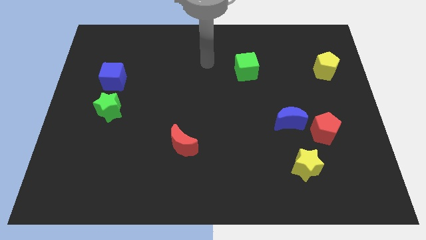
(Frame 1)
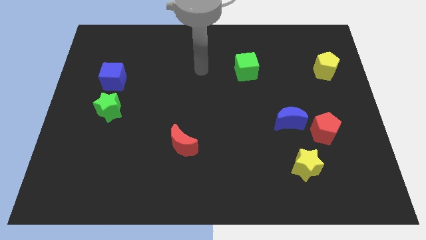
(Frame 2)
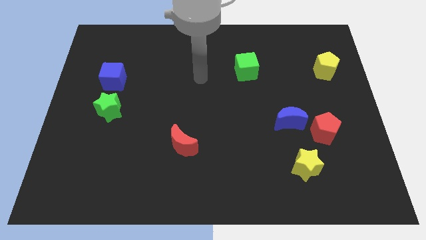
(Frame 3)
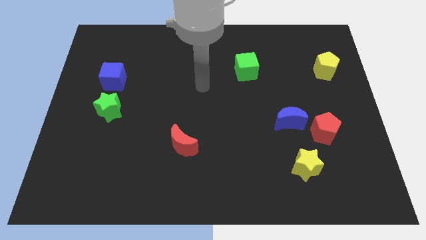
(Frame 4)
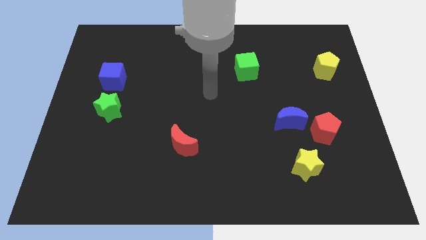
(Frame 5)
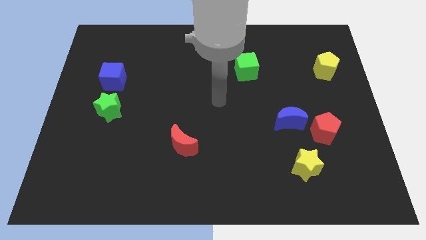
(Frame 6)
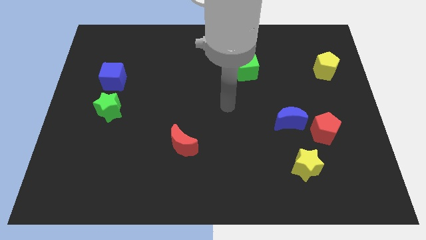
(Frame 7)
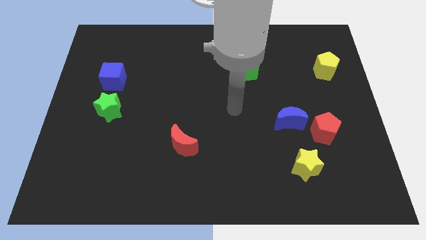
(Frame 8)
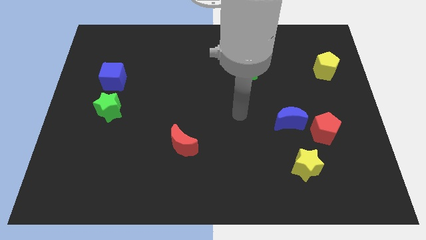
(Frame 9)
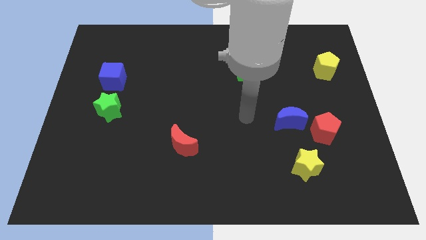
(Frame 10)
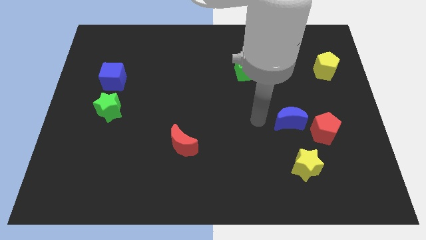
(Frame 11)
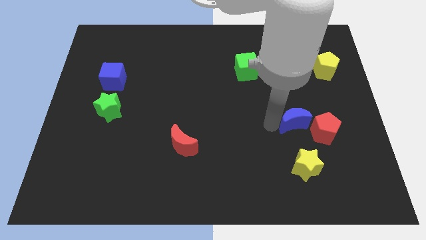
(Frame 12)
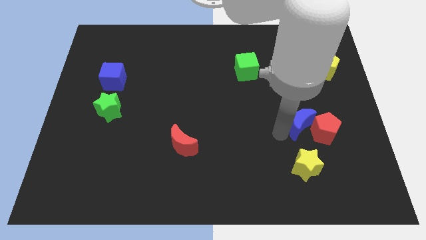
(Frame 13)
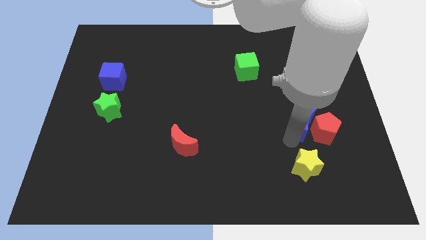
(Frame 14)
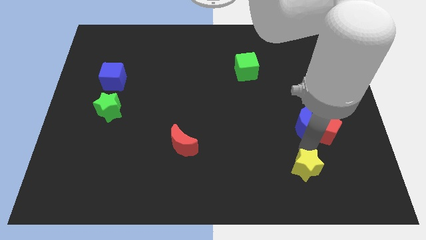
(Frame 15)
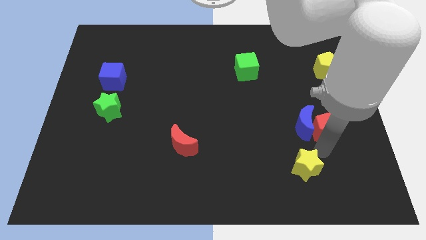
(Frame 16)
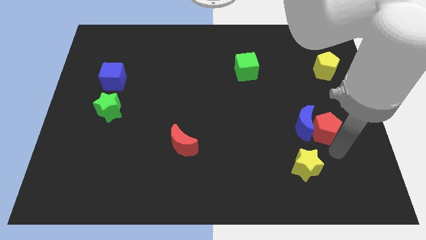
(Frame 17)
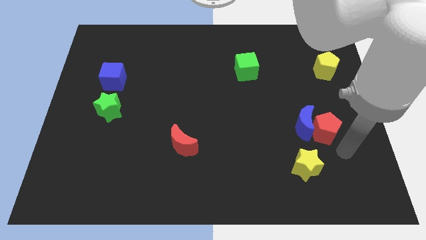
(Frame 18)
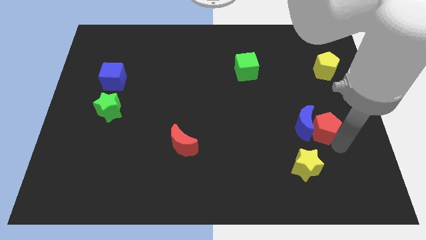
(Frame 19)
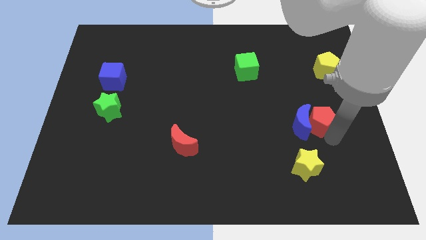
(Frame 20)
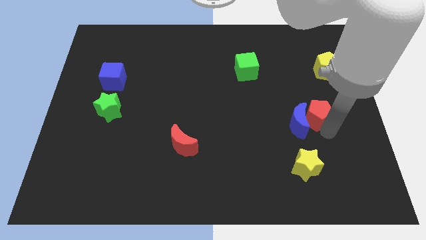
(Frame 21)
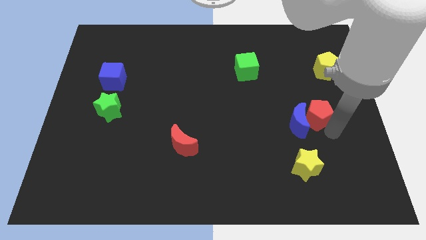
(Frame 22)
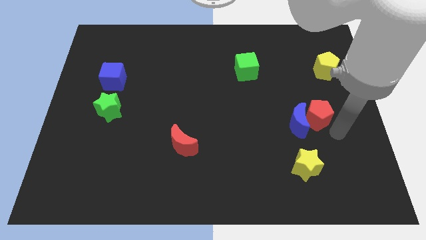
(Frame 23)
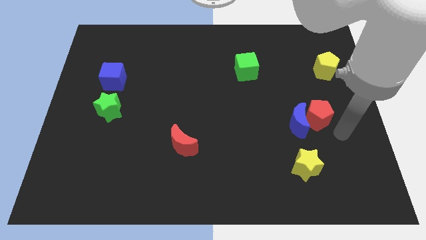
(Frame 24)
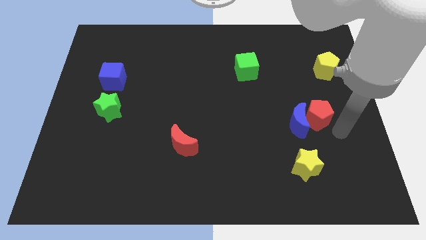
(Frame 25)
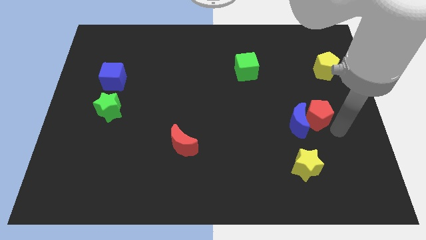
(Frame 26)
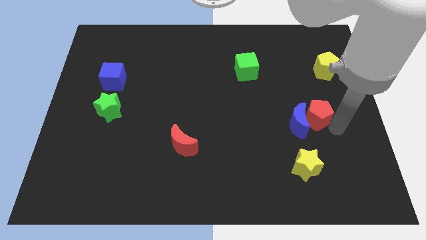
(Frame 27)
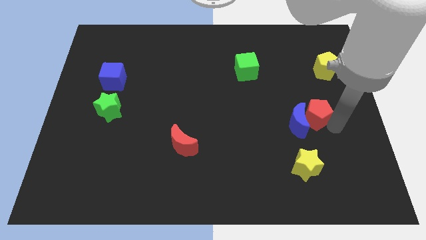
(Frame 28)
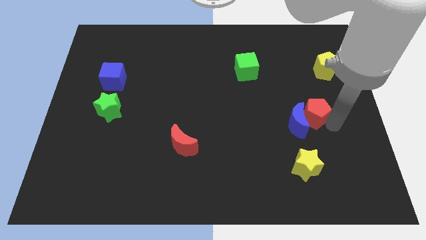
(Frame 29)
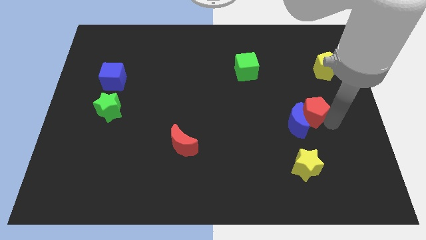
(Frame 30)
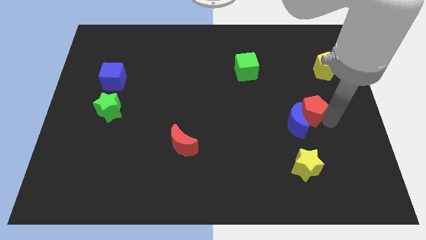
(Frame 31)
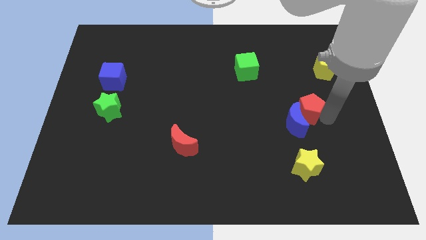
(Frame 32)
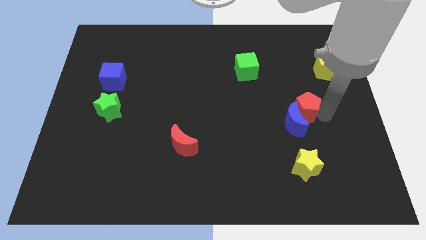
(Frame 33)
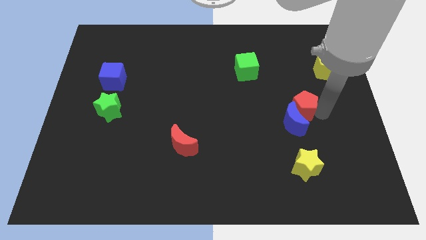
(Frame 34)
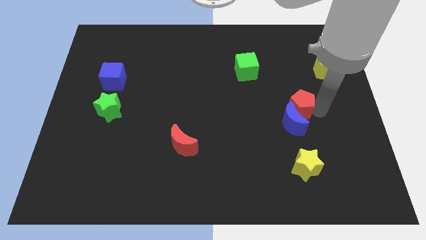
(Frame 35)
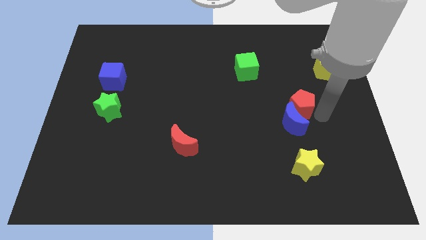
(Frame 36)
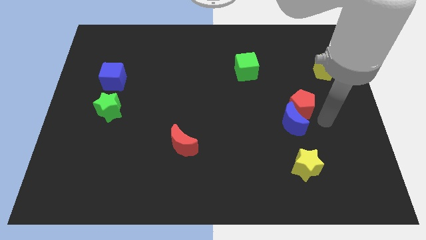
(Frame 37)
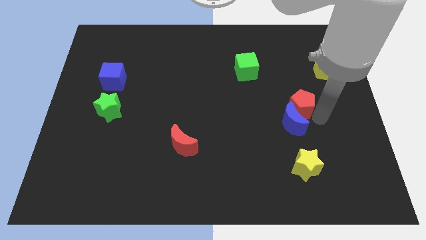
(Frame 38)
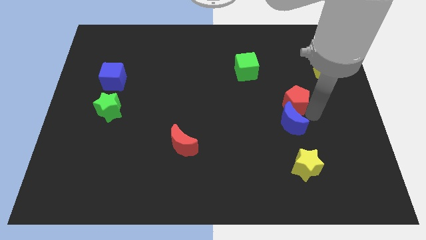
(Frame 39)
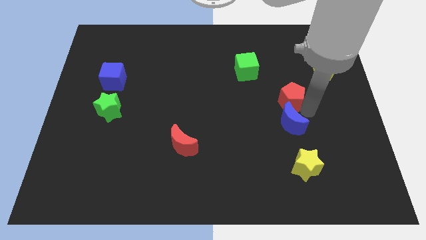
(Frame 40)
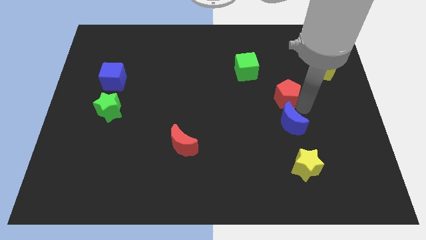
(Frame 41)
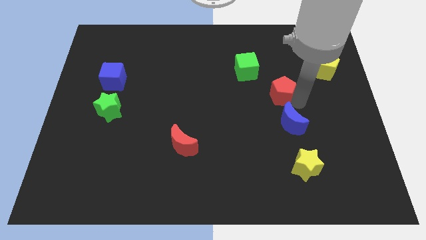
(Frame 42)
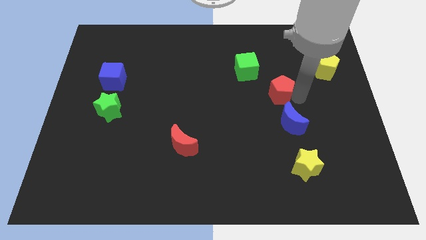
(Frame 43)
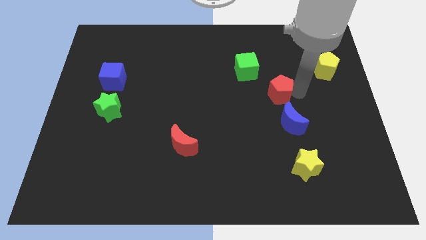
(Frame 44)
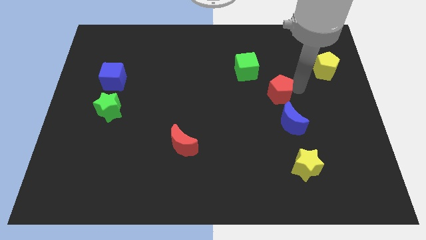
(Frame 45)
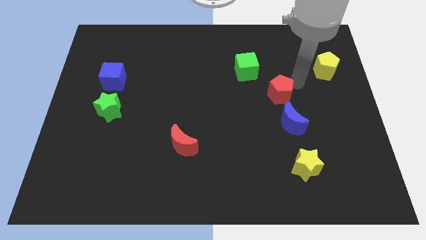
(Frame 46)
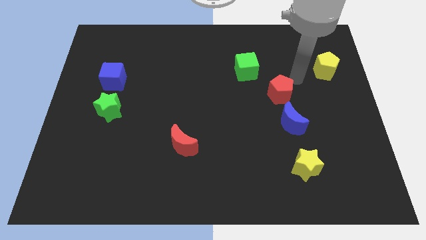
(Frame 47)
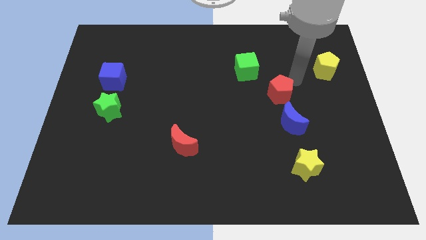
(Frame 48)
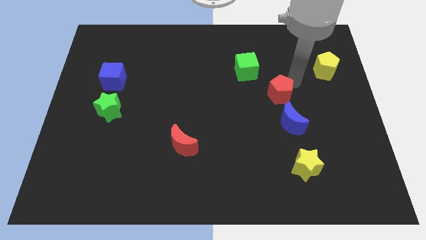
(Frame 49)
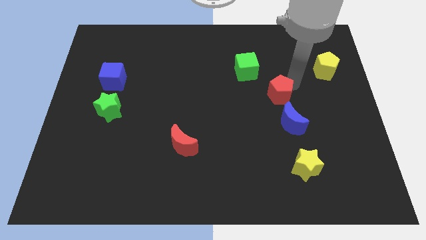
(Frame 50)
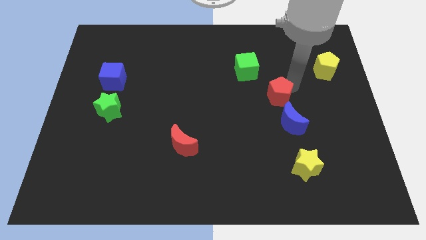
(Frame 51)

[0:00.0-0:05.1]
push the red pentagon to the top left of the blue moon

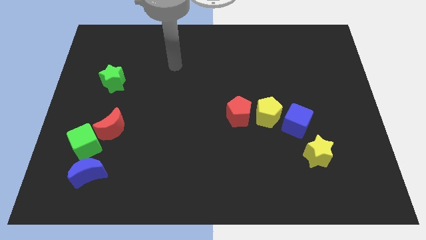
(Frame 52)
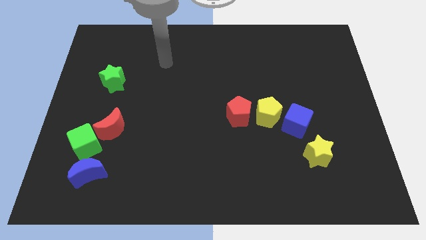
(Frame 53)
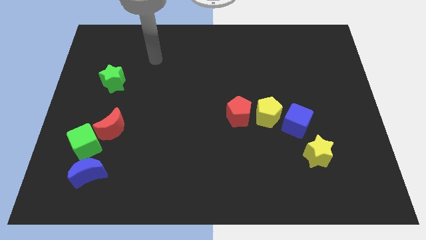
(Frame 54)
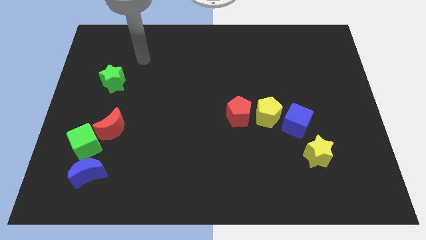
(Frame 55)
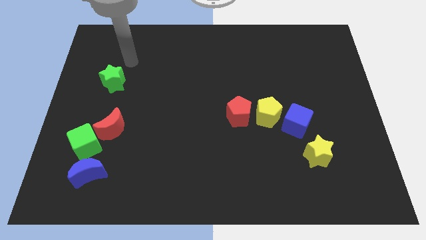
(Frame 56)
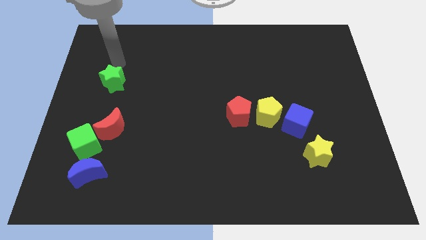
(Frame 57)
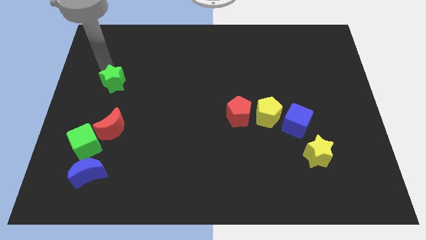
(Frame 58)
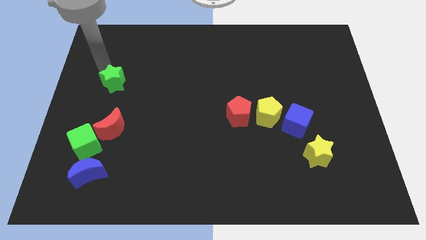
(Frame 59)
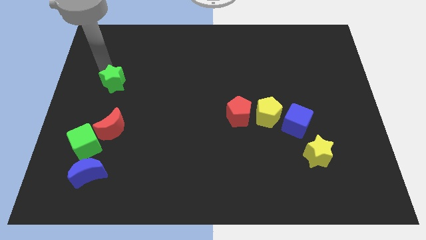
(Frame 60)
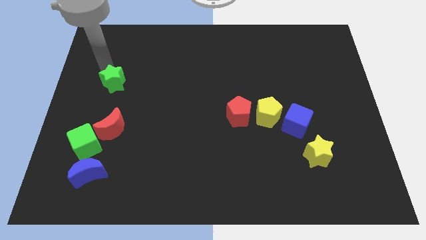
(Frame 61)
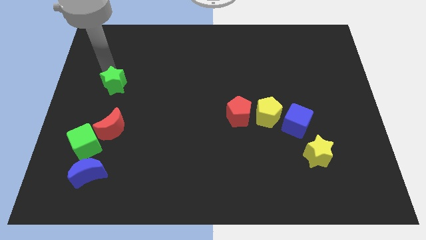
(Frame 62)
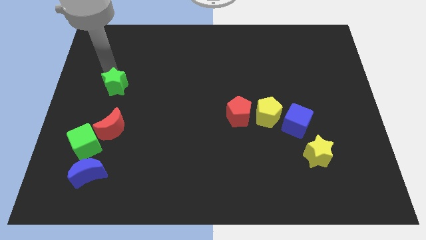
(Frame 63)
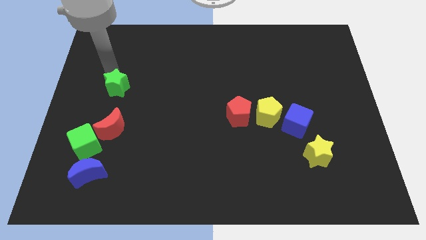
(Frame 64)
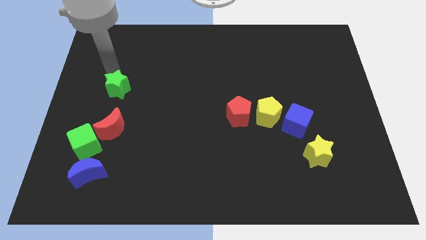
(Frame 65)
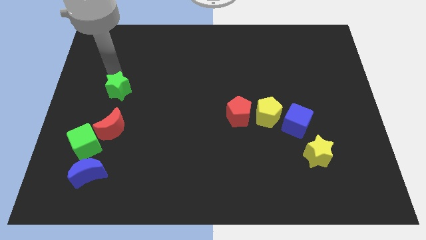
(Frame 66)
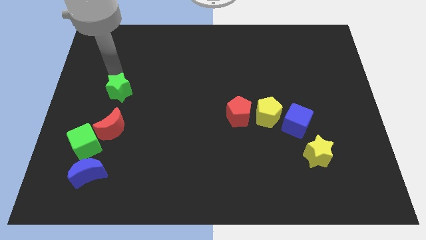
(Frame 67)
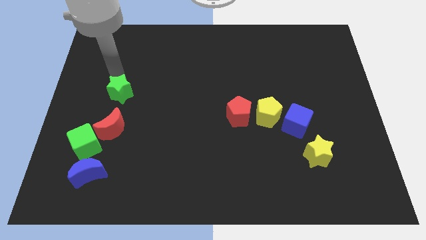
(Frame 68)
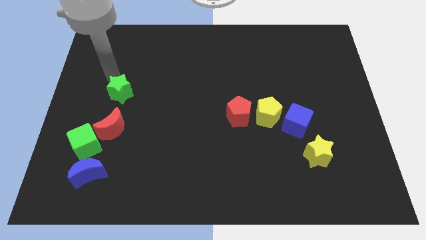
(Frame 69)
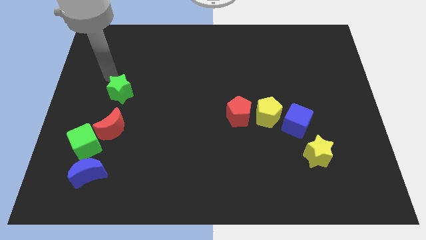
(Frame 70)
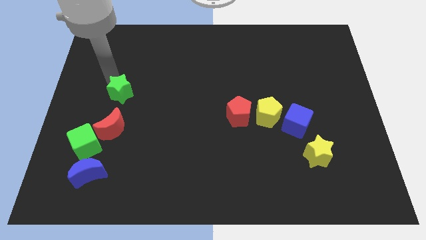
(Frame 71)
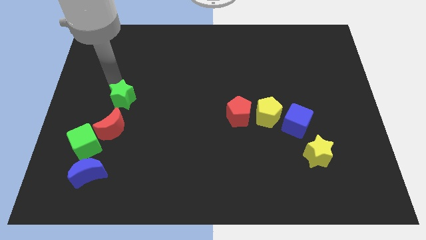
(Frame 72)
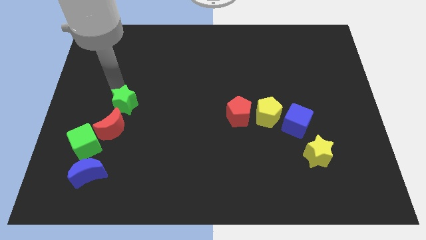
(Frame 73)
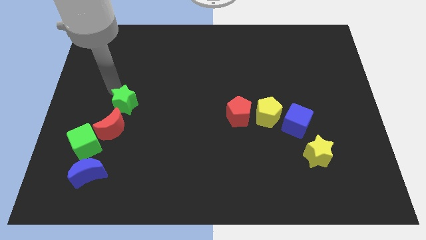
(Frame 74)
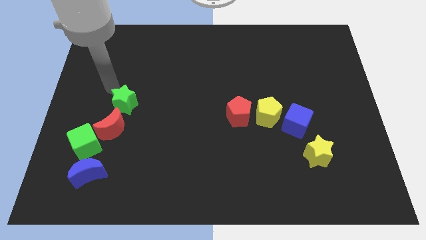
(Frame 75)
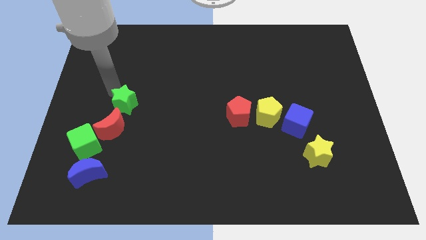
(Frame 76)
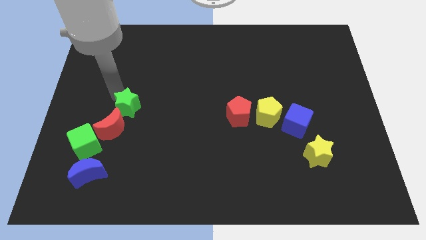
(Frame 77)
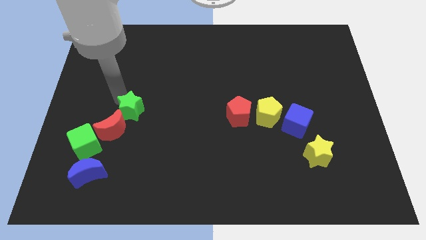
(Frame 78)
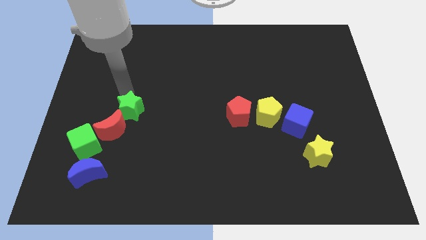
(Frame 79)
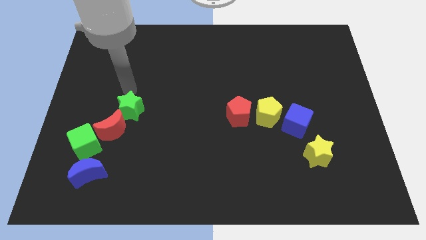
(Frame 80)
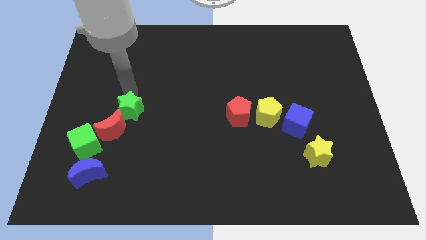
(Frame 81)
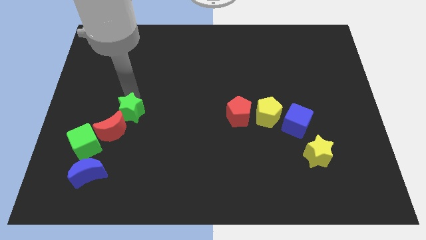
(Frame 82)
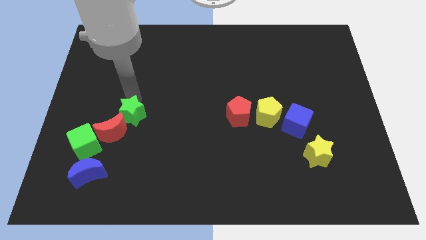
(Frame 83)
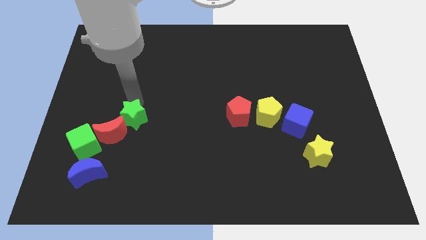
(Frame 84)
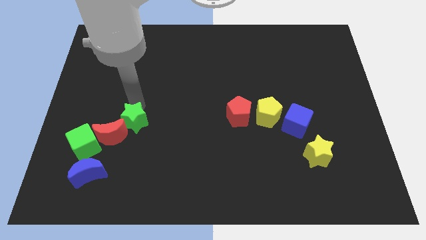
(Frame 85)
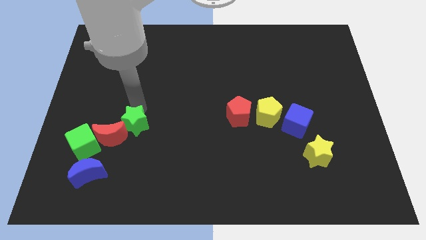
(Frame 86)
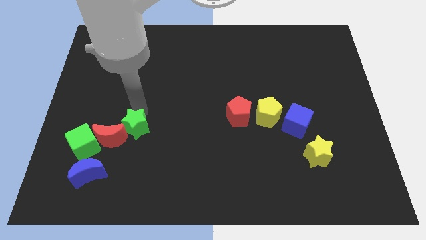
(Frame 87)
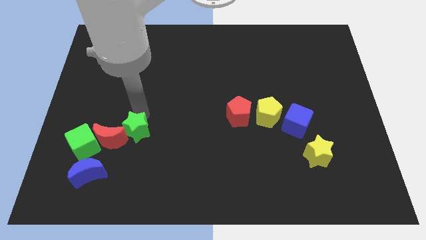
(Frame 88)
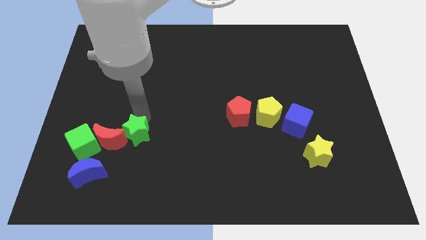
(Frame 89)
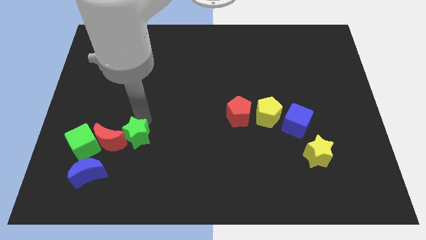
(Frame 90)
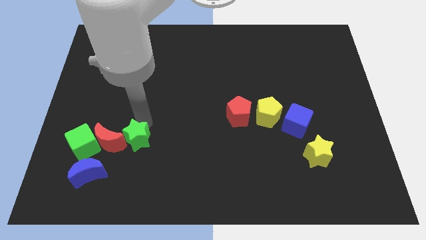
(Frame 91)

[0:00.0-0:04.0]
push the green star to the bottom right of the red moon
